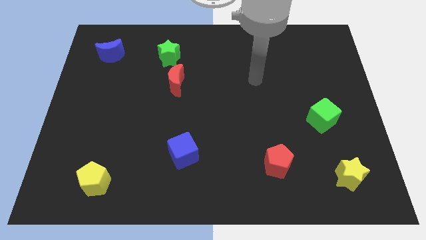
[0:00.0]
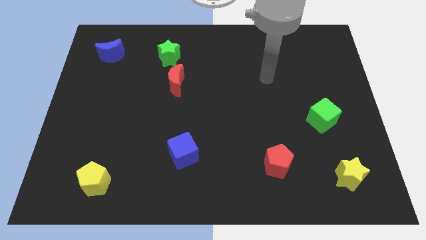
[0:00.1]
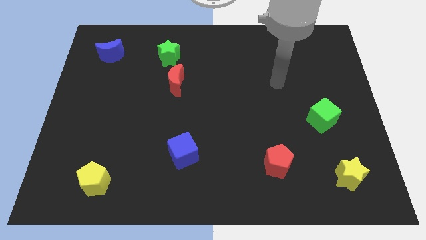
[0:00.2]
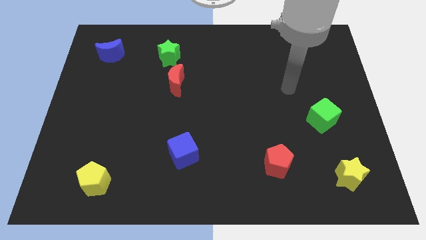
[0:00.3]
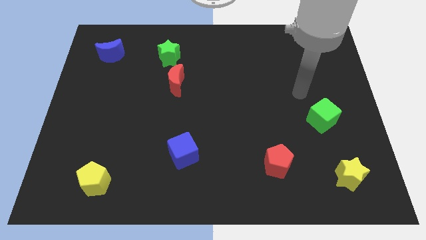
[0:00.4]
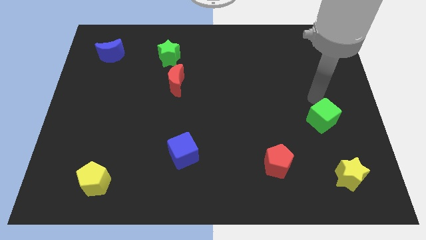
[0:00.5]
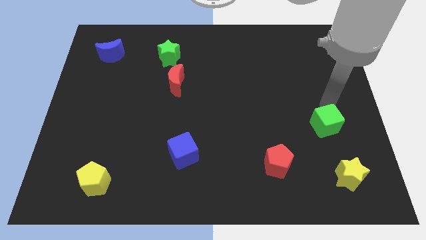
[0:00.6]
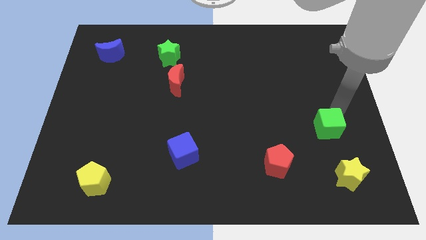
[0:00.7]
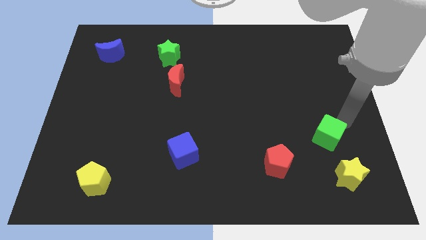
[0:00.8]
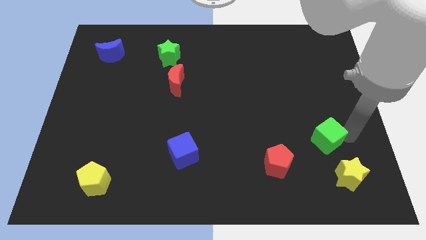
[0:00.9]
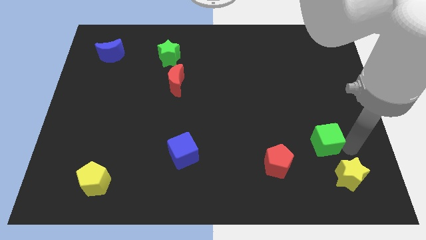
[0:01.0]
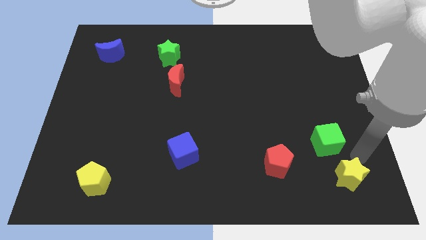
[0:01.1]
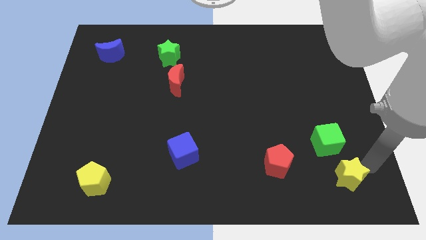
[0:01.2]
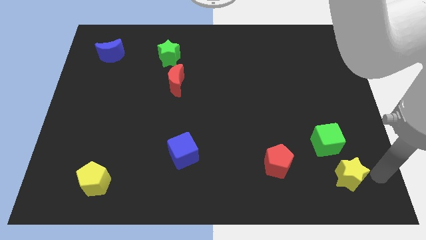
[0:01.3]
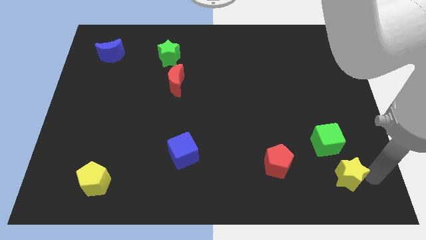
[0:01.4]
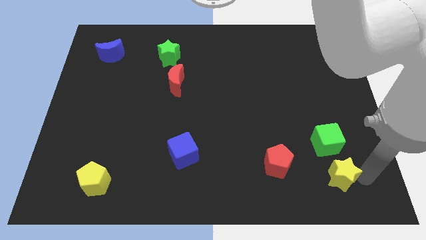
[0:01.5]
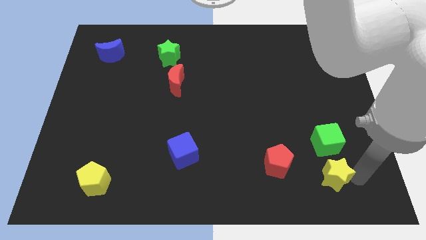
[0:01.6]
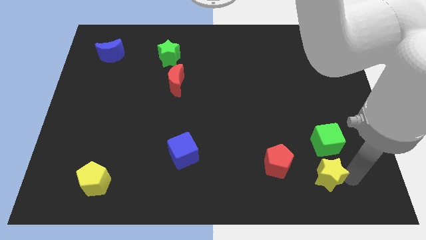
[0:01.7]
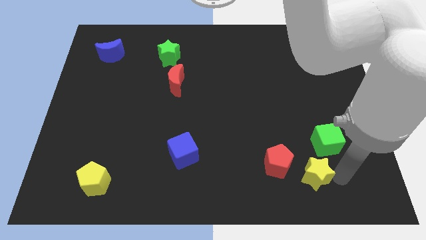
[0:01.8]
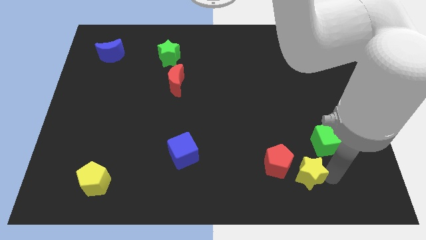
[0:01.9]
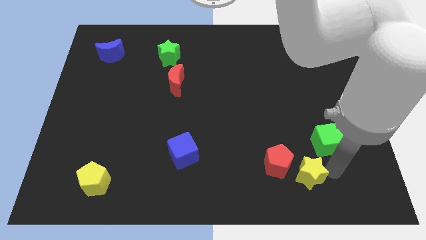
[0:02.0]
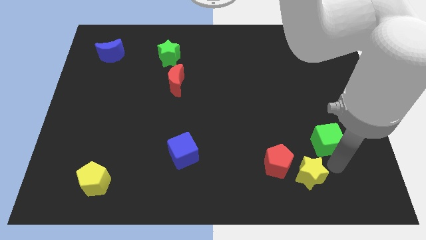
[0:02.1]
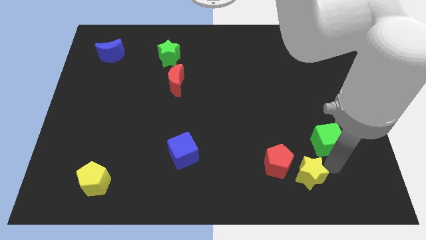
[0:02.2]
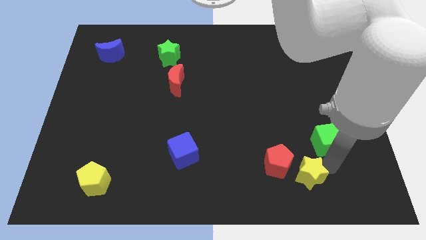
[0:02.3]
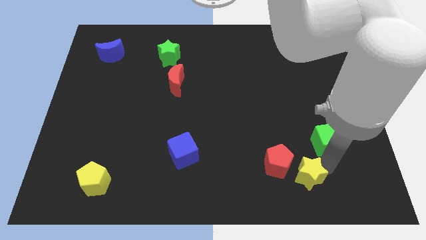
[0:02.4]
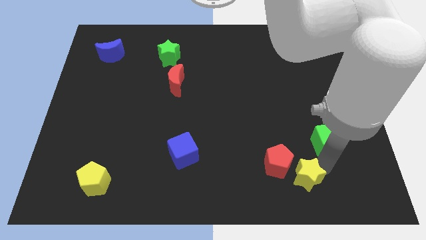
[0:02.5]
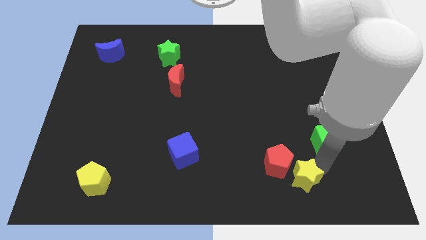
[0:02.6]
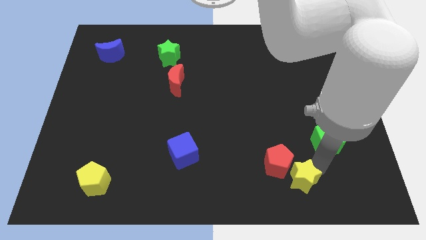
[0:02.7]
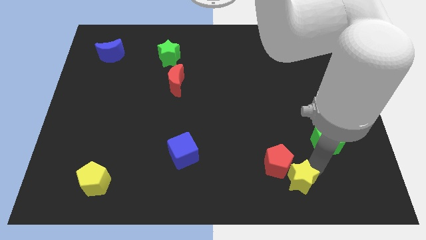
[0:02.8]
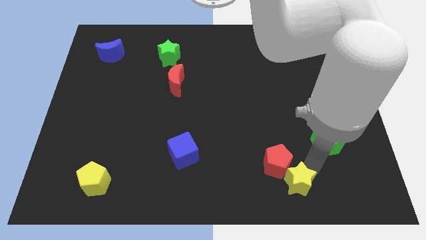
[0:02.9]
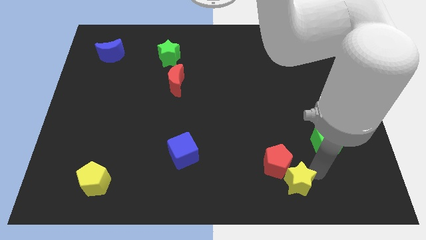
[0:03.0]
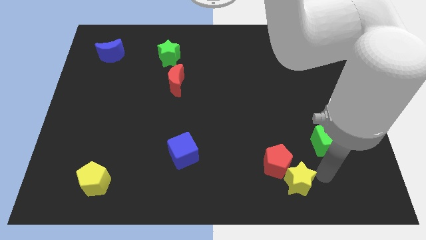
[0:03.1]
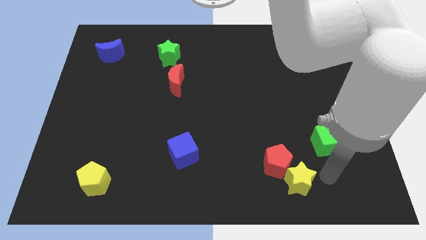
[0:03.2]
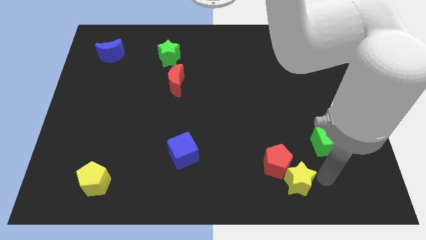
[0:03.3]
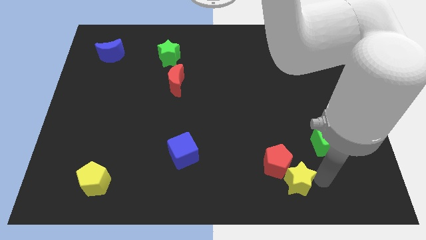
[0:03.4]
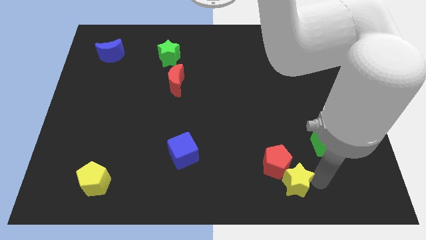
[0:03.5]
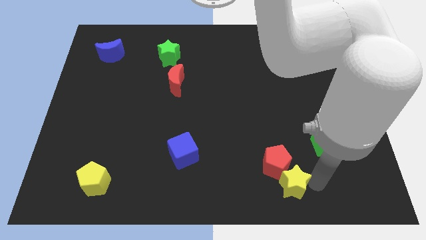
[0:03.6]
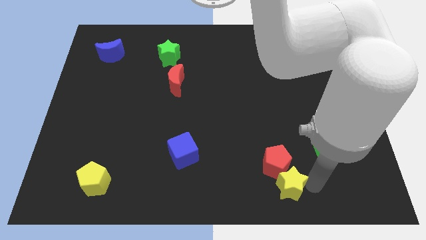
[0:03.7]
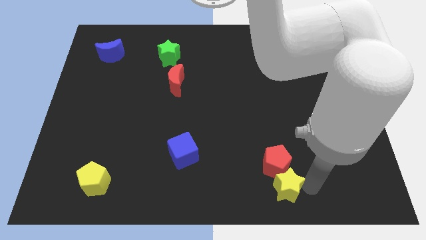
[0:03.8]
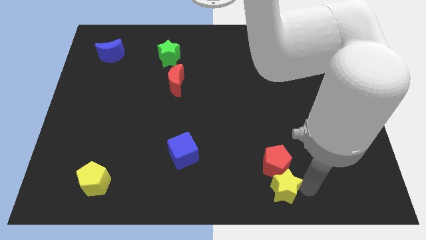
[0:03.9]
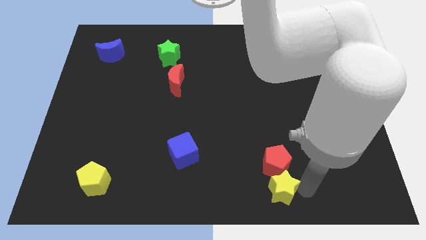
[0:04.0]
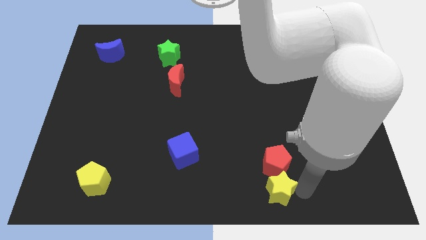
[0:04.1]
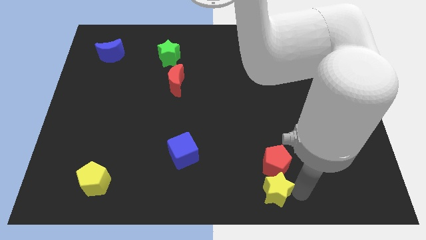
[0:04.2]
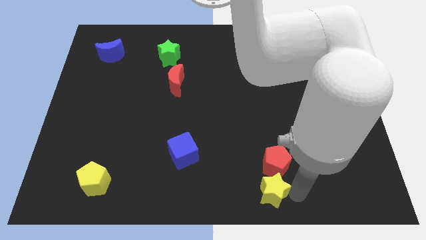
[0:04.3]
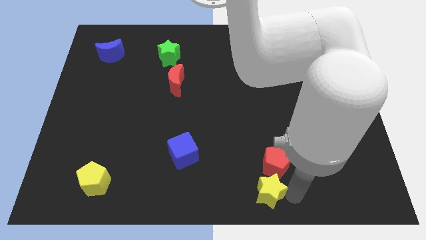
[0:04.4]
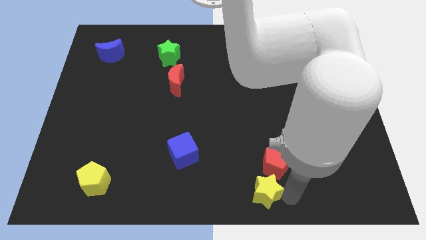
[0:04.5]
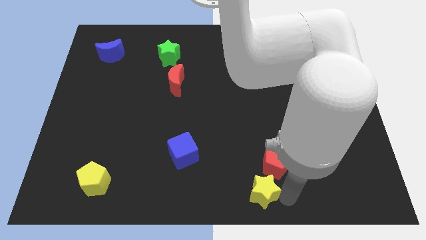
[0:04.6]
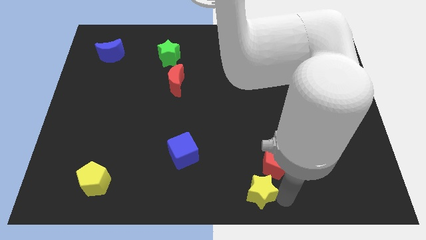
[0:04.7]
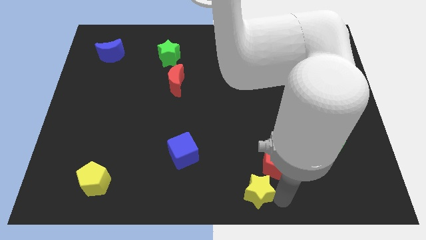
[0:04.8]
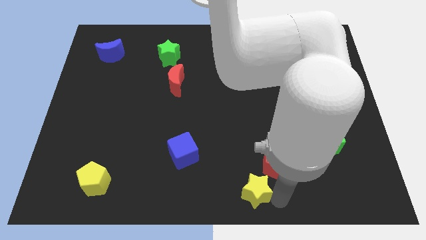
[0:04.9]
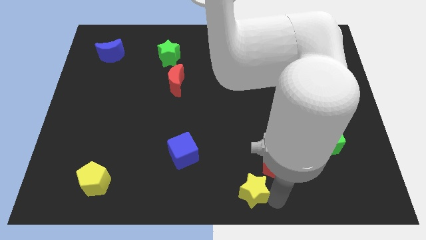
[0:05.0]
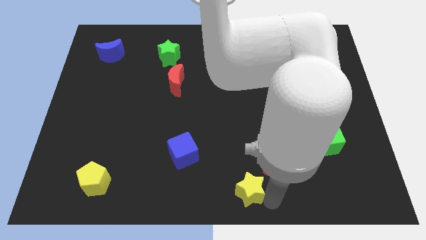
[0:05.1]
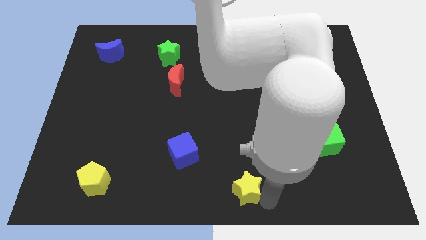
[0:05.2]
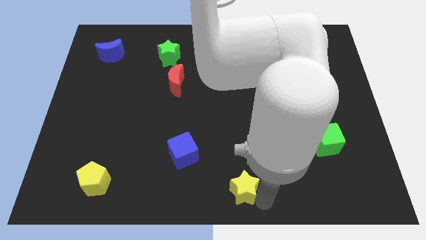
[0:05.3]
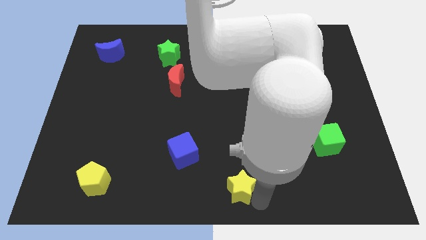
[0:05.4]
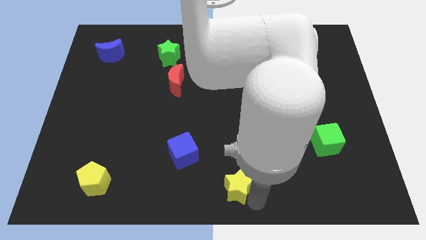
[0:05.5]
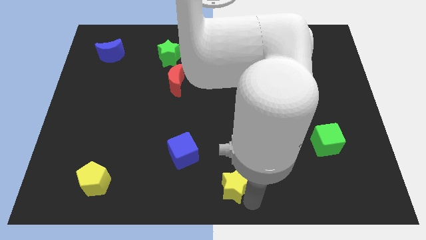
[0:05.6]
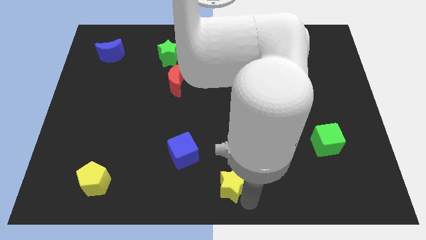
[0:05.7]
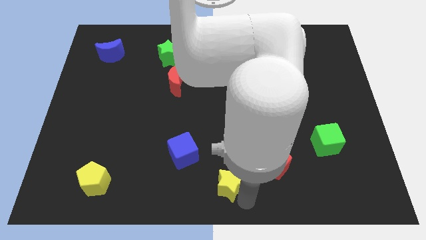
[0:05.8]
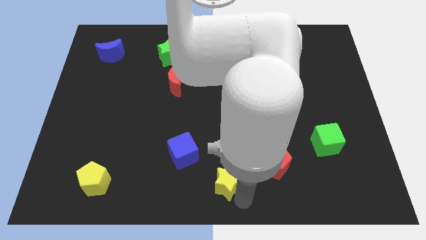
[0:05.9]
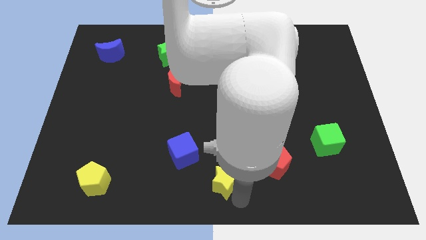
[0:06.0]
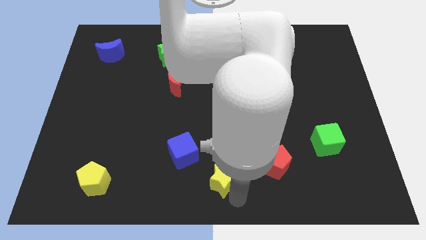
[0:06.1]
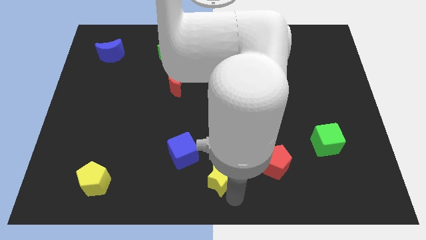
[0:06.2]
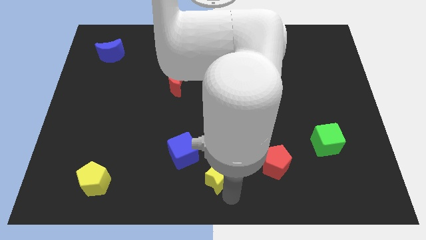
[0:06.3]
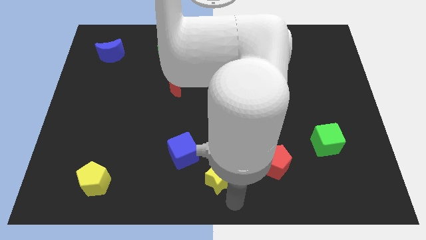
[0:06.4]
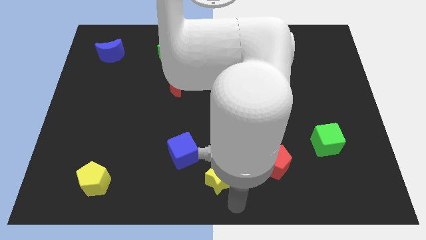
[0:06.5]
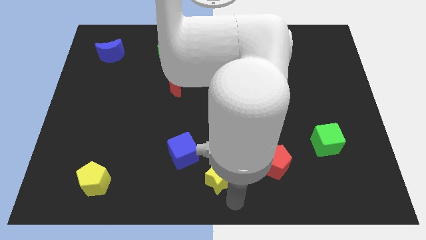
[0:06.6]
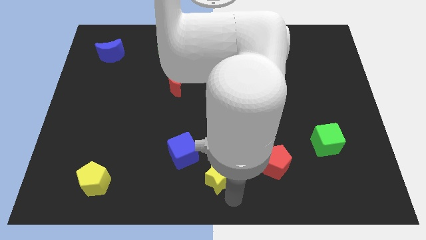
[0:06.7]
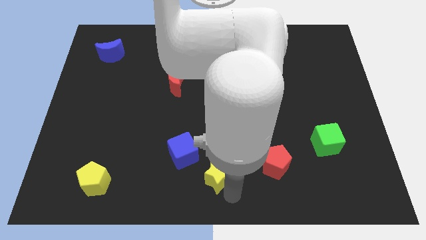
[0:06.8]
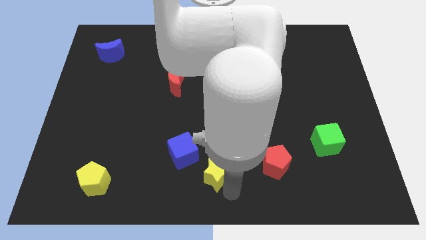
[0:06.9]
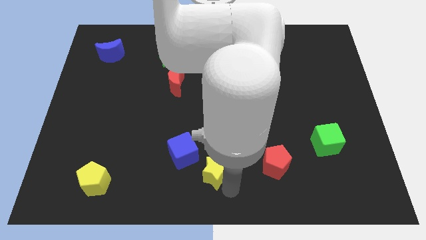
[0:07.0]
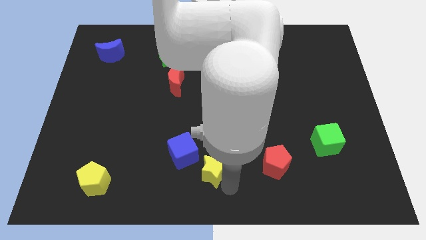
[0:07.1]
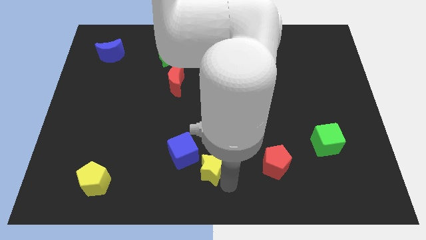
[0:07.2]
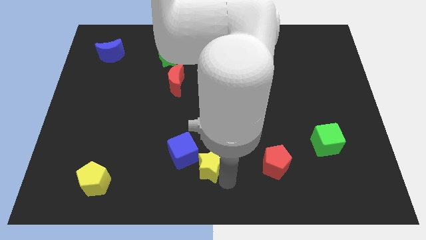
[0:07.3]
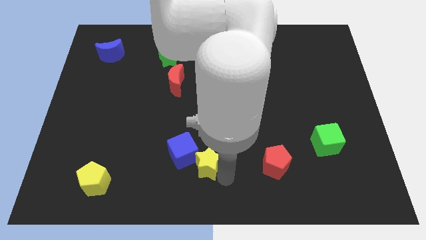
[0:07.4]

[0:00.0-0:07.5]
push the yellow star towards the blue cube
